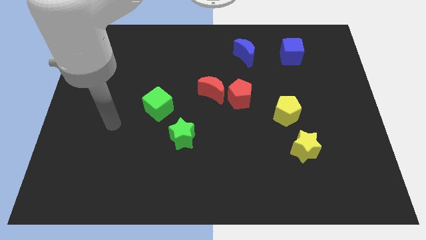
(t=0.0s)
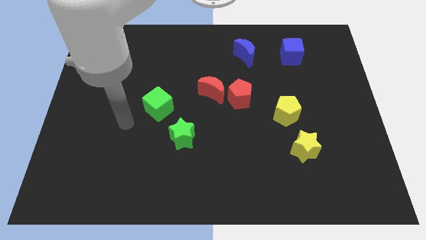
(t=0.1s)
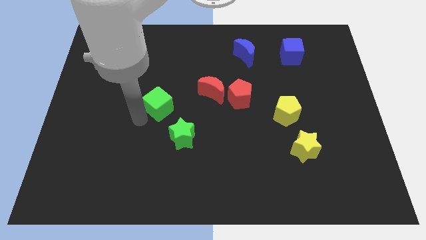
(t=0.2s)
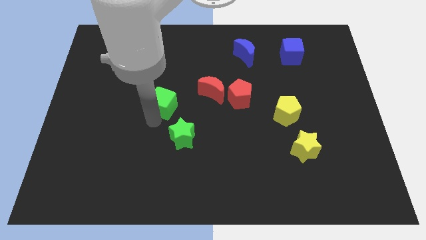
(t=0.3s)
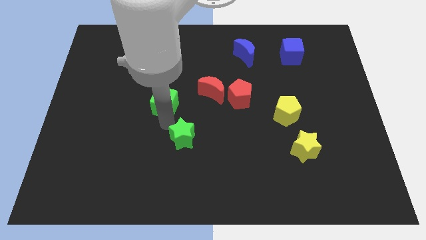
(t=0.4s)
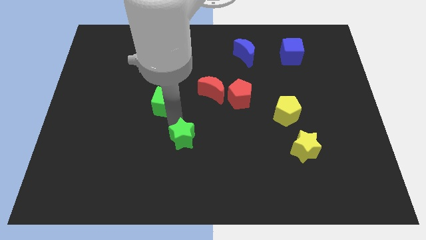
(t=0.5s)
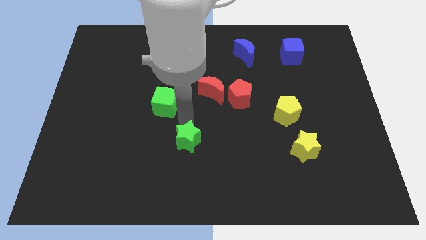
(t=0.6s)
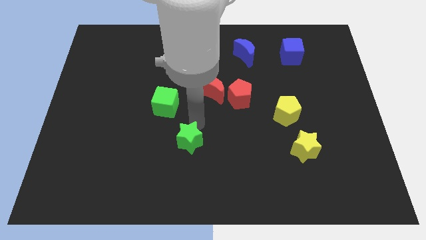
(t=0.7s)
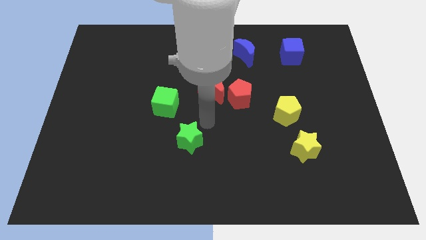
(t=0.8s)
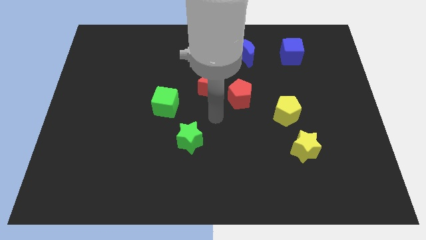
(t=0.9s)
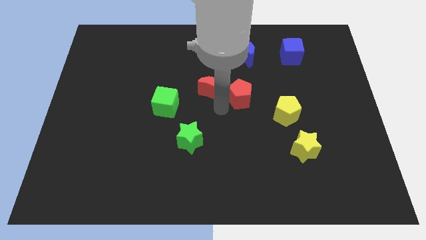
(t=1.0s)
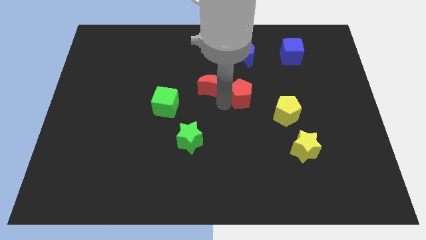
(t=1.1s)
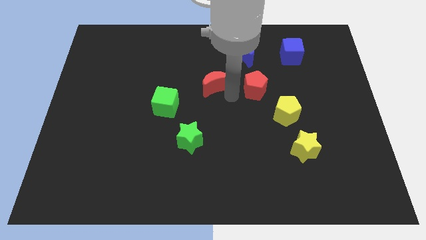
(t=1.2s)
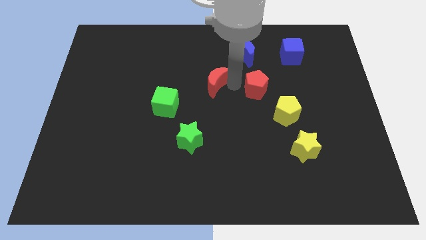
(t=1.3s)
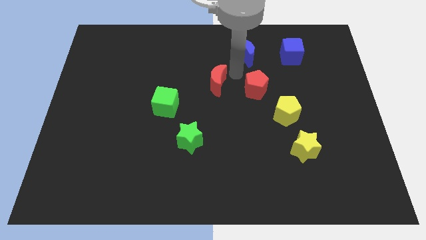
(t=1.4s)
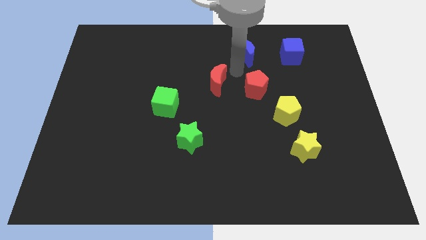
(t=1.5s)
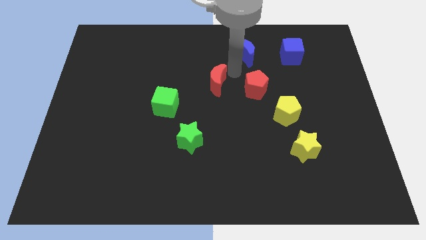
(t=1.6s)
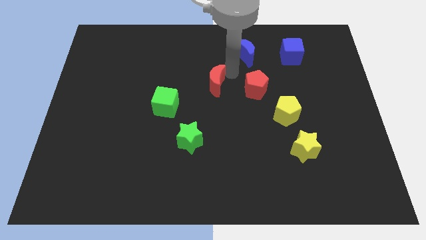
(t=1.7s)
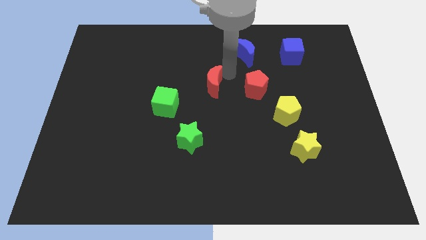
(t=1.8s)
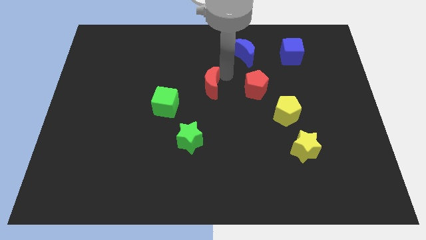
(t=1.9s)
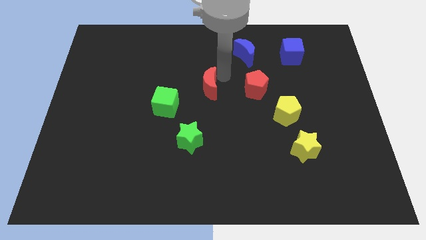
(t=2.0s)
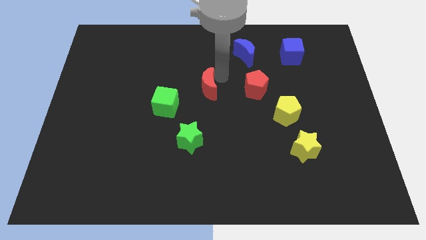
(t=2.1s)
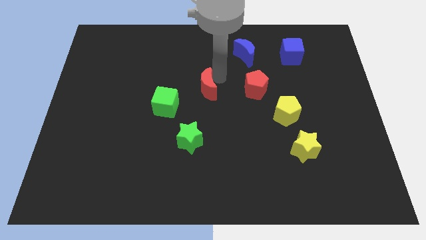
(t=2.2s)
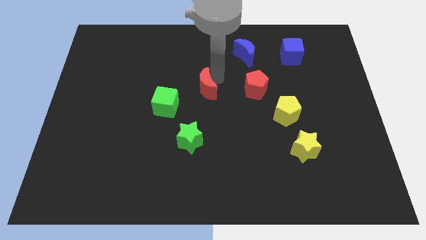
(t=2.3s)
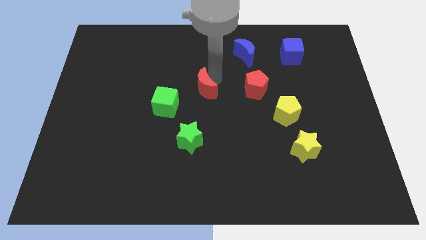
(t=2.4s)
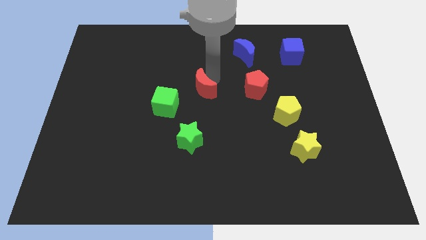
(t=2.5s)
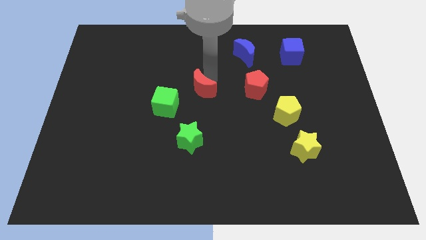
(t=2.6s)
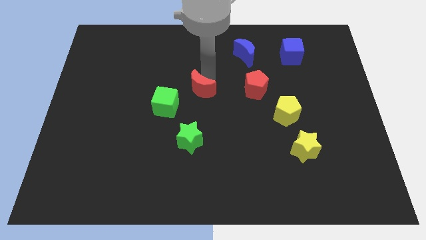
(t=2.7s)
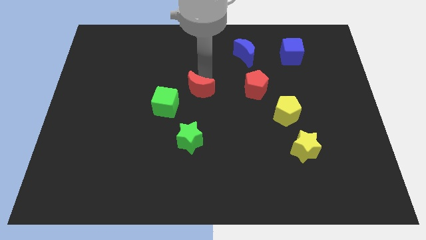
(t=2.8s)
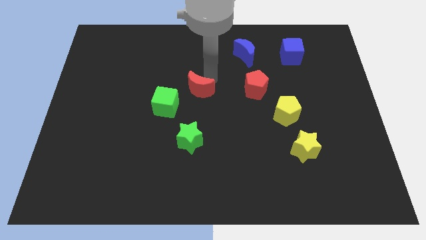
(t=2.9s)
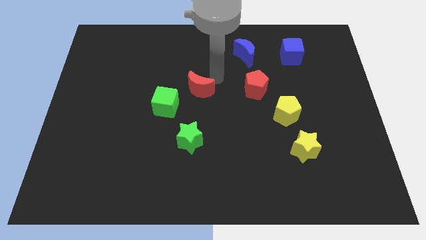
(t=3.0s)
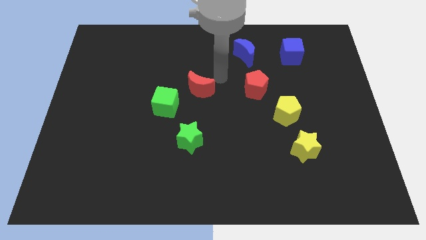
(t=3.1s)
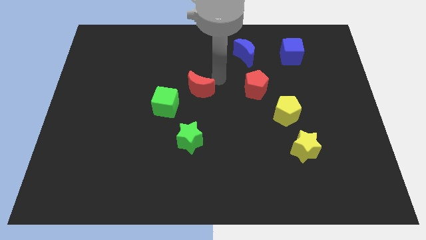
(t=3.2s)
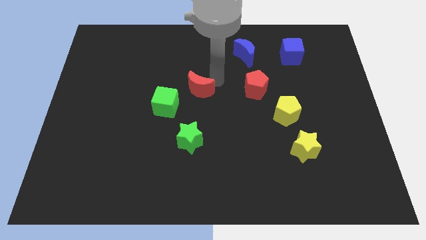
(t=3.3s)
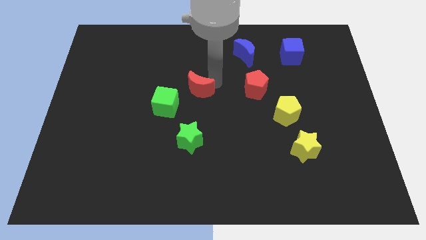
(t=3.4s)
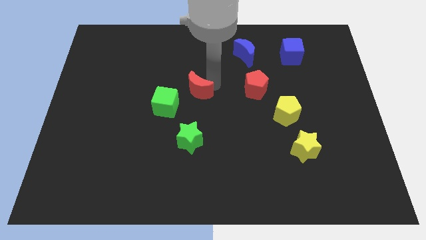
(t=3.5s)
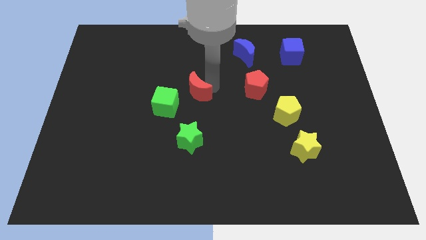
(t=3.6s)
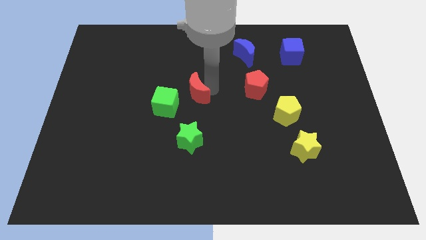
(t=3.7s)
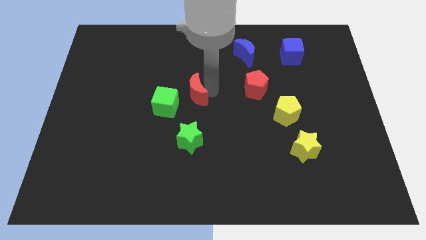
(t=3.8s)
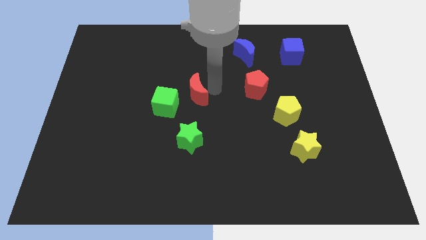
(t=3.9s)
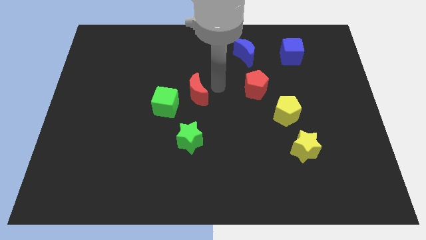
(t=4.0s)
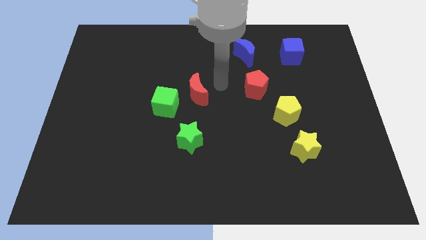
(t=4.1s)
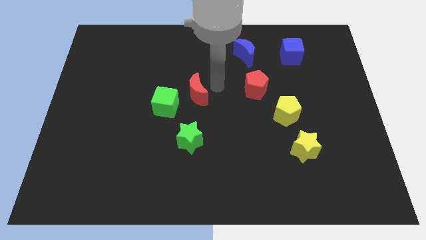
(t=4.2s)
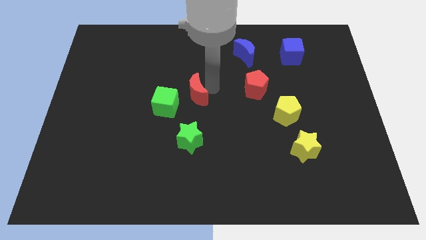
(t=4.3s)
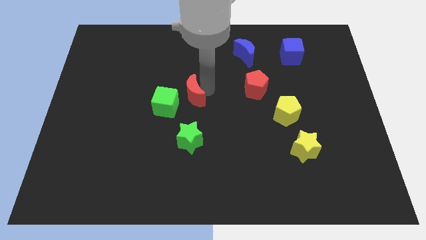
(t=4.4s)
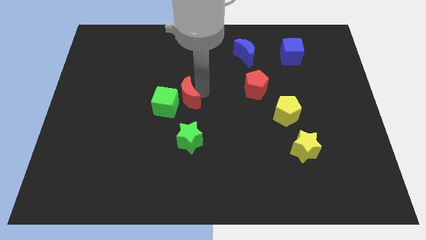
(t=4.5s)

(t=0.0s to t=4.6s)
slide the red moon towards the green cube

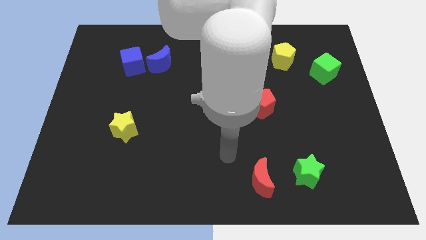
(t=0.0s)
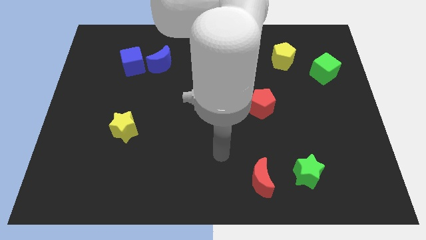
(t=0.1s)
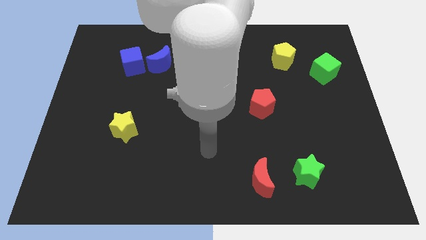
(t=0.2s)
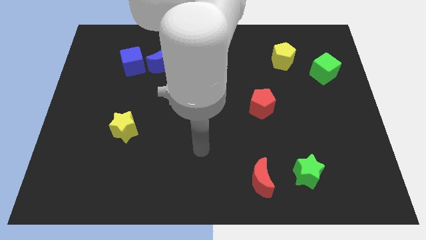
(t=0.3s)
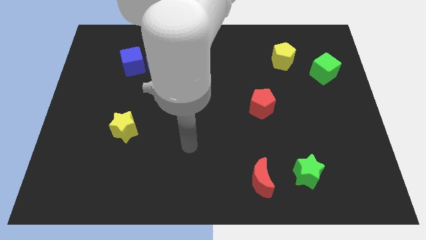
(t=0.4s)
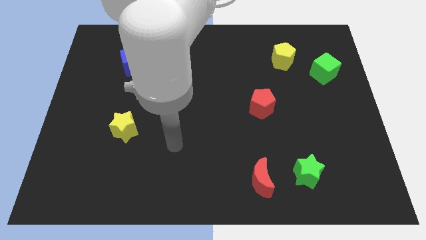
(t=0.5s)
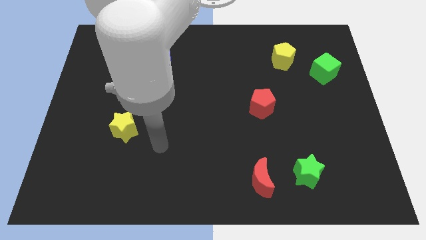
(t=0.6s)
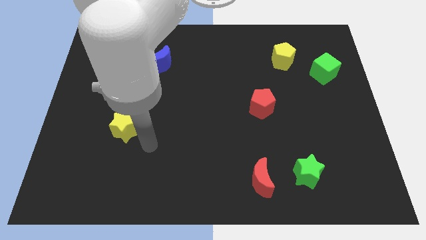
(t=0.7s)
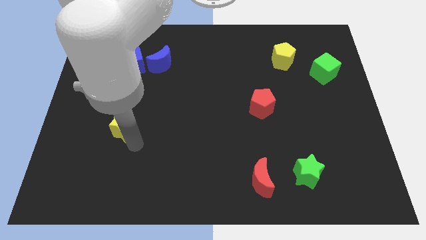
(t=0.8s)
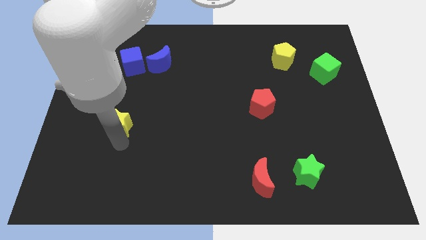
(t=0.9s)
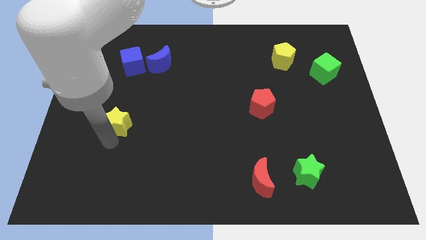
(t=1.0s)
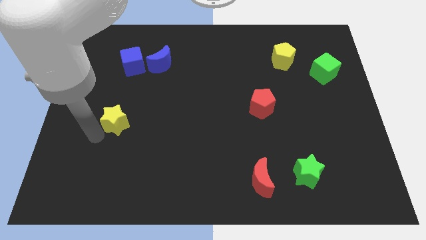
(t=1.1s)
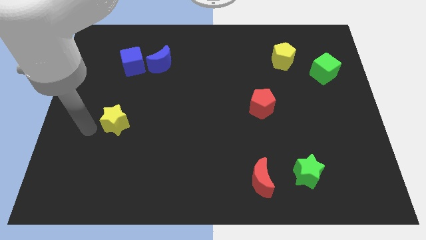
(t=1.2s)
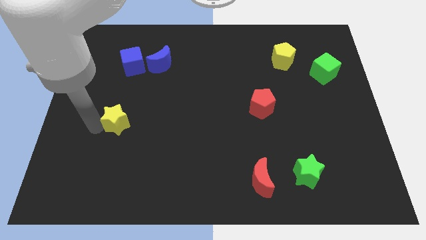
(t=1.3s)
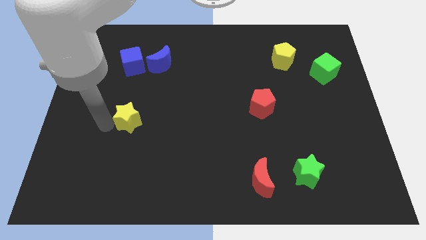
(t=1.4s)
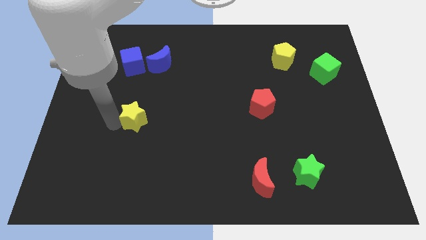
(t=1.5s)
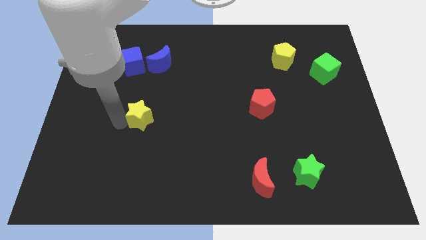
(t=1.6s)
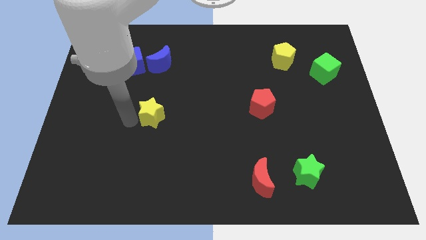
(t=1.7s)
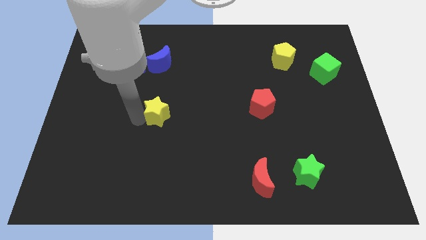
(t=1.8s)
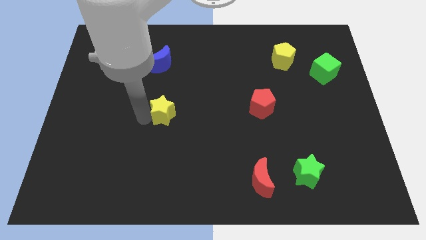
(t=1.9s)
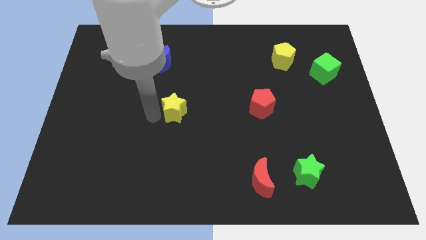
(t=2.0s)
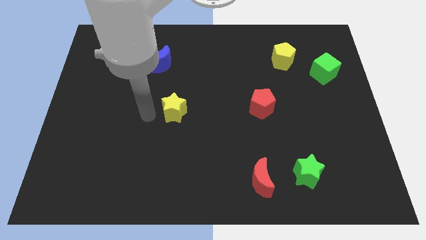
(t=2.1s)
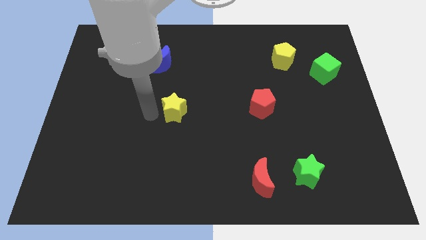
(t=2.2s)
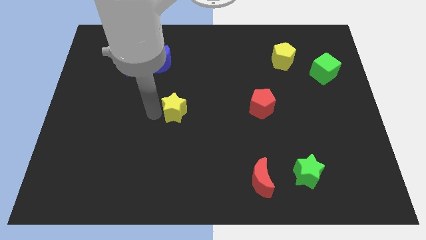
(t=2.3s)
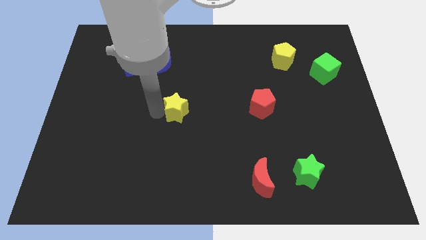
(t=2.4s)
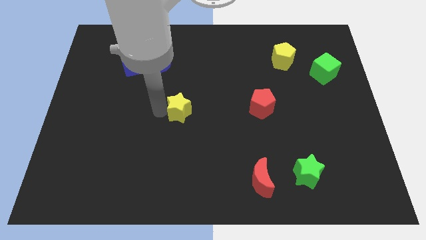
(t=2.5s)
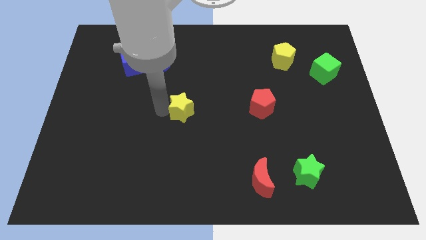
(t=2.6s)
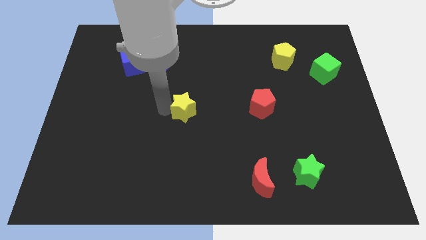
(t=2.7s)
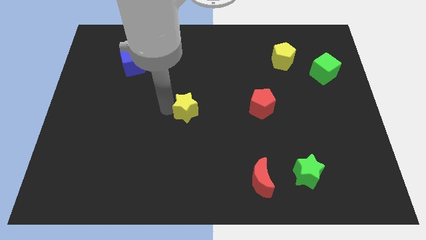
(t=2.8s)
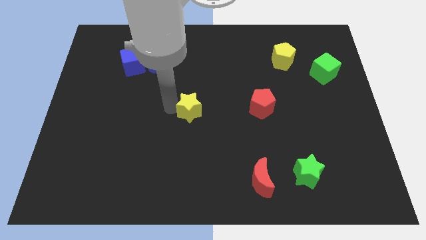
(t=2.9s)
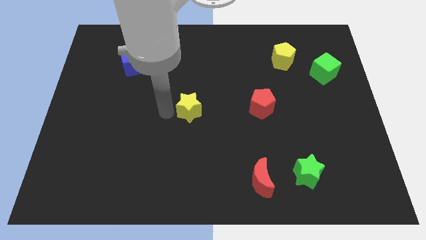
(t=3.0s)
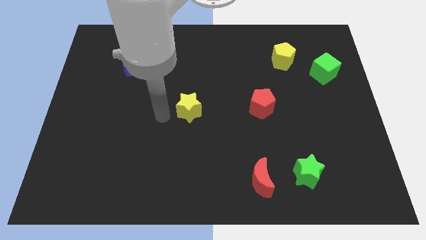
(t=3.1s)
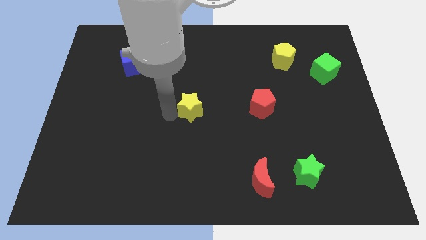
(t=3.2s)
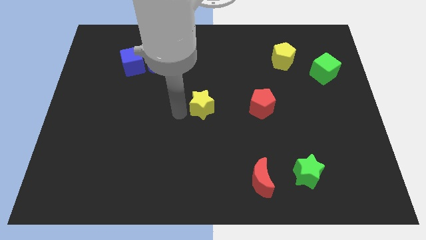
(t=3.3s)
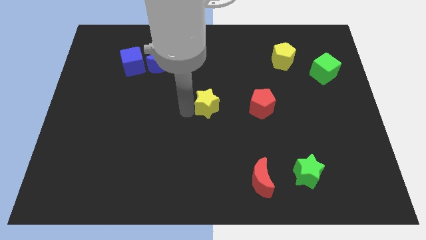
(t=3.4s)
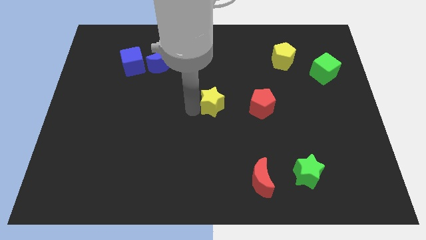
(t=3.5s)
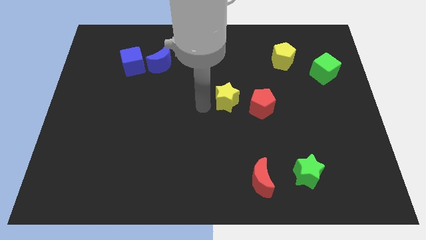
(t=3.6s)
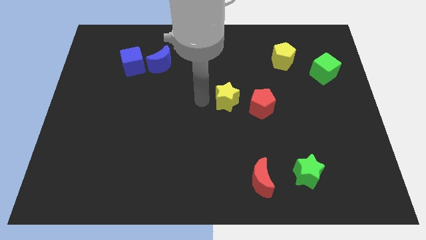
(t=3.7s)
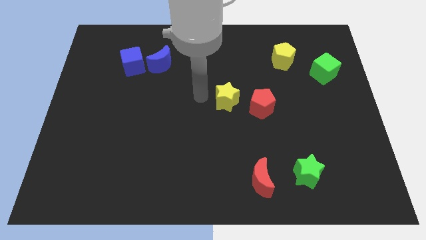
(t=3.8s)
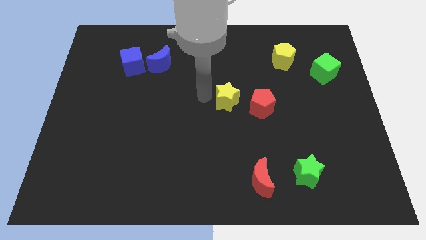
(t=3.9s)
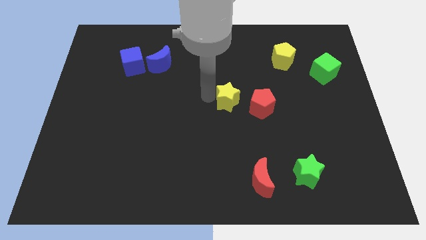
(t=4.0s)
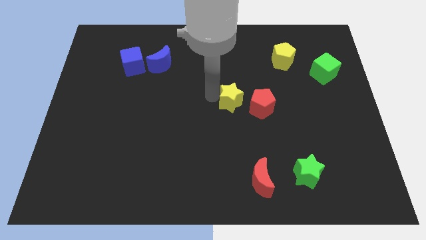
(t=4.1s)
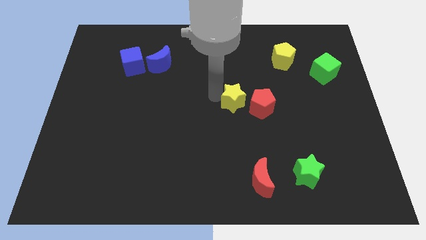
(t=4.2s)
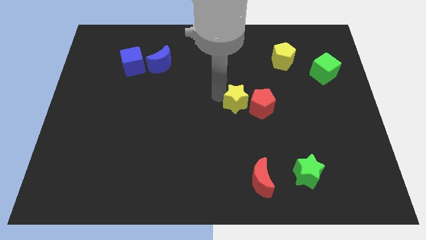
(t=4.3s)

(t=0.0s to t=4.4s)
move the yellow star close to the red pentagon
